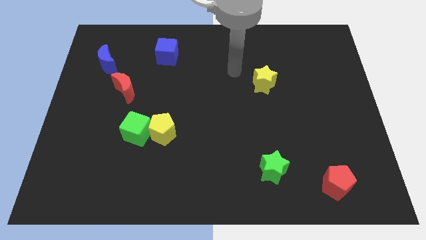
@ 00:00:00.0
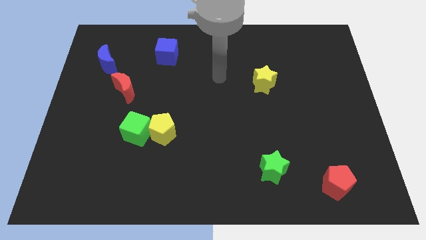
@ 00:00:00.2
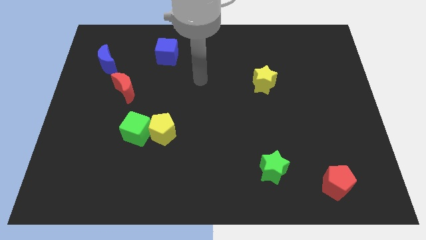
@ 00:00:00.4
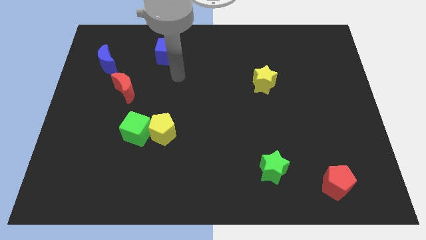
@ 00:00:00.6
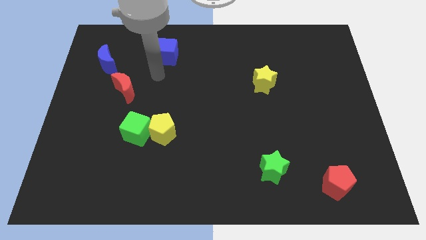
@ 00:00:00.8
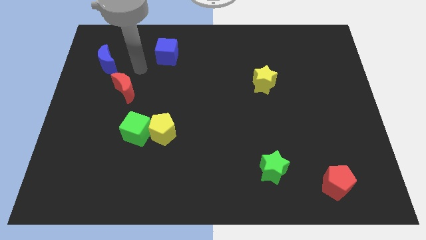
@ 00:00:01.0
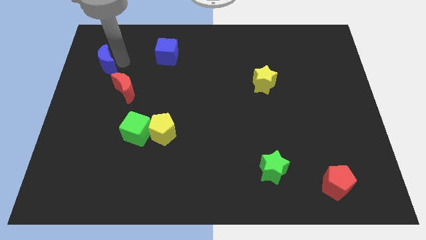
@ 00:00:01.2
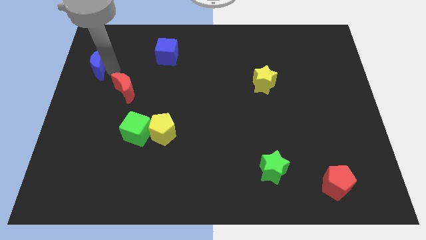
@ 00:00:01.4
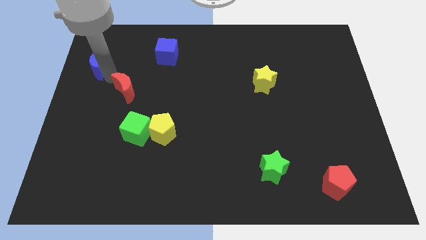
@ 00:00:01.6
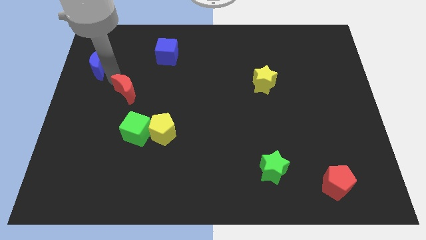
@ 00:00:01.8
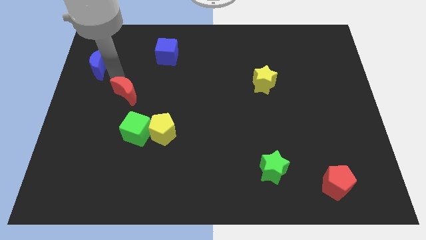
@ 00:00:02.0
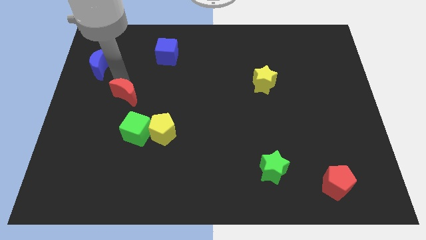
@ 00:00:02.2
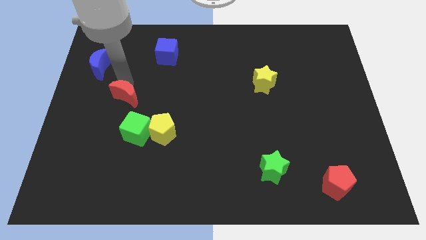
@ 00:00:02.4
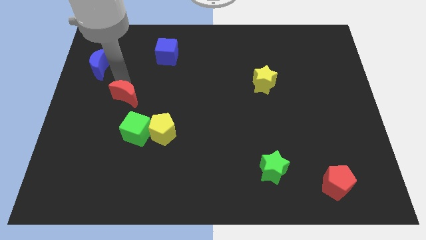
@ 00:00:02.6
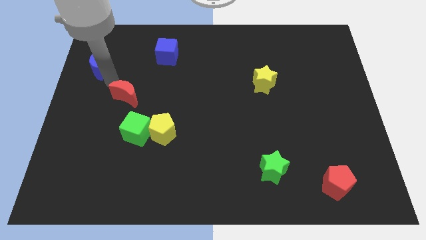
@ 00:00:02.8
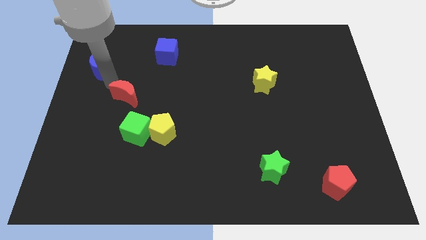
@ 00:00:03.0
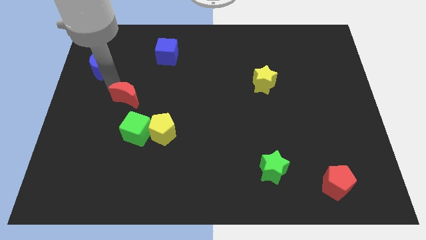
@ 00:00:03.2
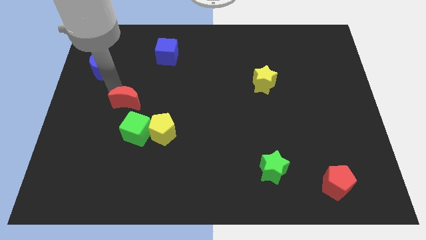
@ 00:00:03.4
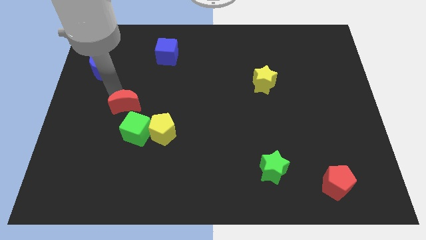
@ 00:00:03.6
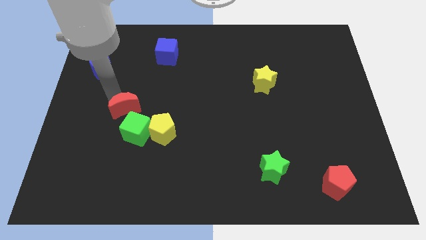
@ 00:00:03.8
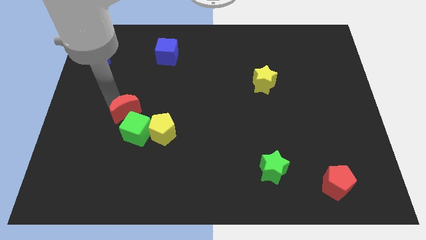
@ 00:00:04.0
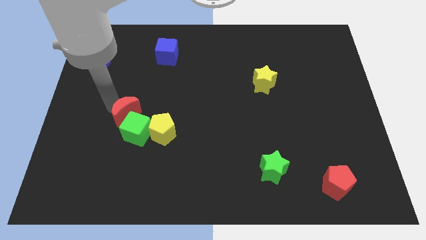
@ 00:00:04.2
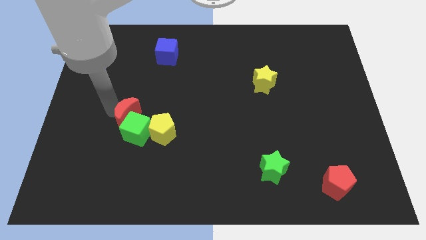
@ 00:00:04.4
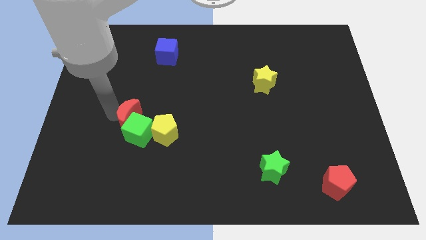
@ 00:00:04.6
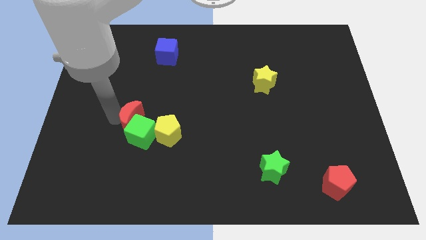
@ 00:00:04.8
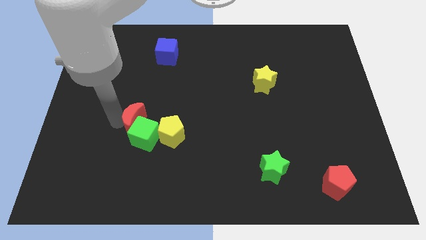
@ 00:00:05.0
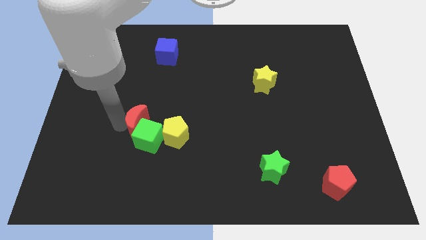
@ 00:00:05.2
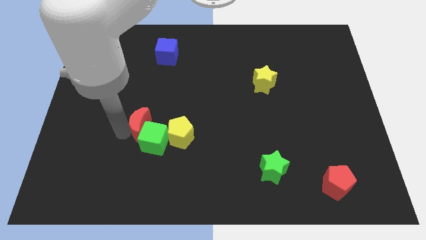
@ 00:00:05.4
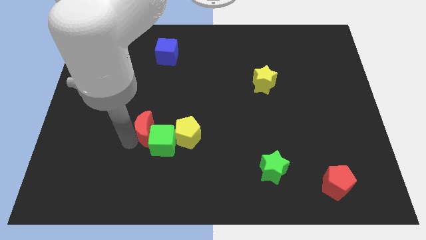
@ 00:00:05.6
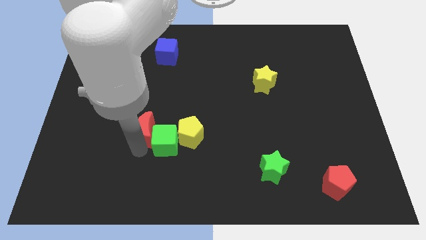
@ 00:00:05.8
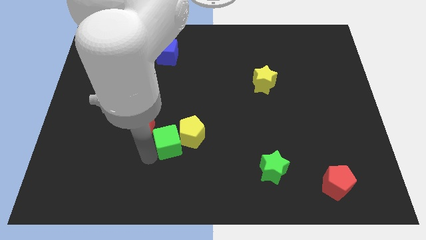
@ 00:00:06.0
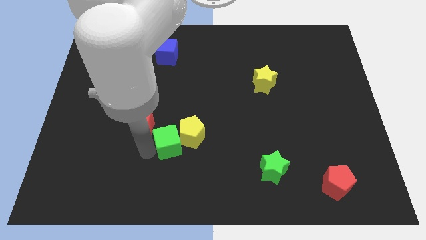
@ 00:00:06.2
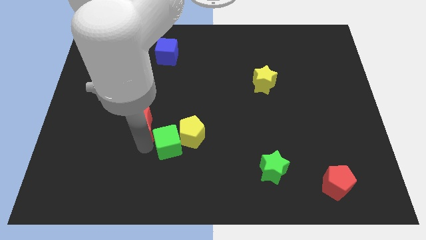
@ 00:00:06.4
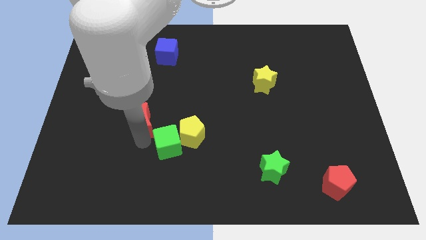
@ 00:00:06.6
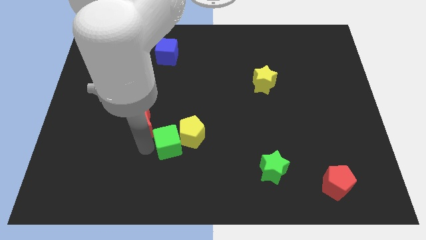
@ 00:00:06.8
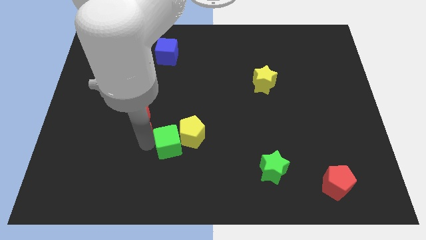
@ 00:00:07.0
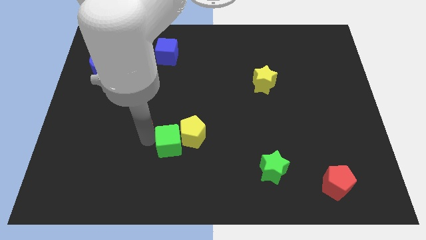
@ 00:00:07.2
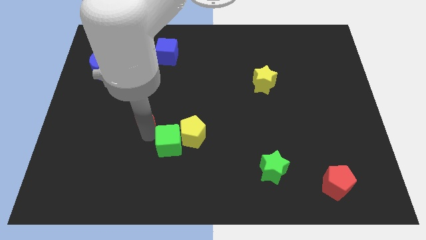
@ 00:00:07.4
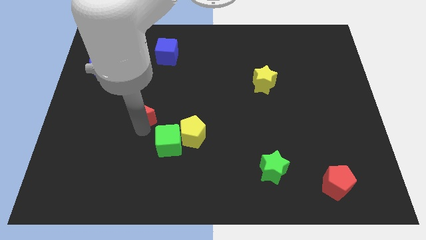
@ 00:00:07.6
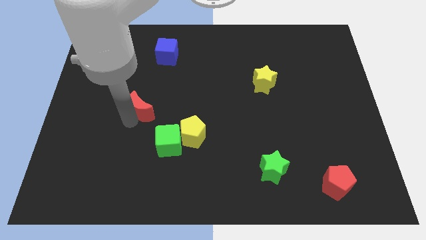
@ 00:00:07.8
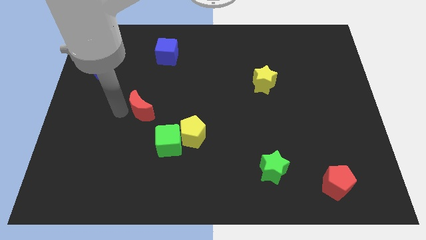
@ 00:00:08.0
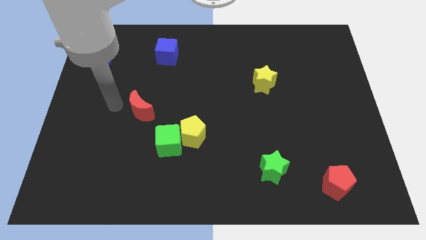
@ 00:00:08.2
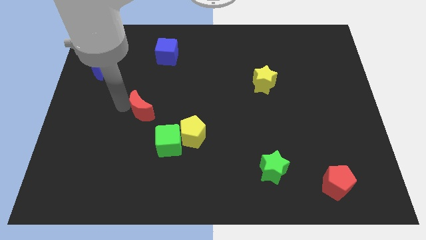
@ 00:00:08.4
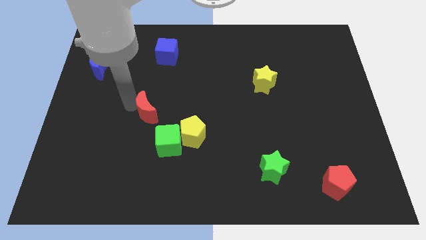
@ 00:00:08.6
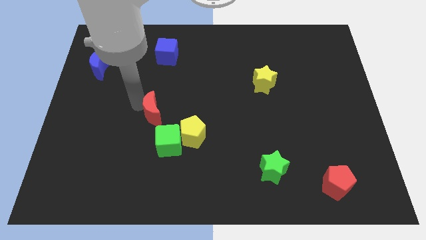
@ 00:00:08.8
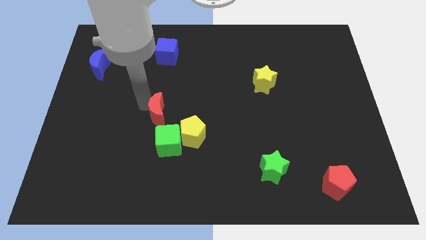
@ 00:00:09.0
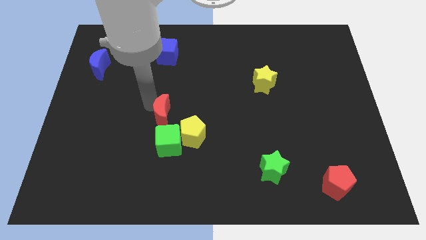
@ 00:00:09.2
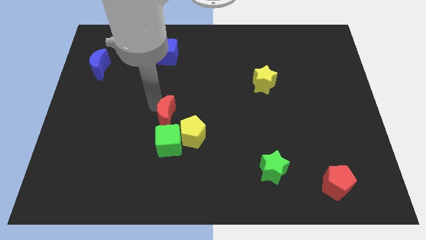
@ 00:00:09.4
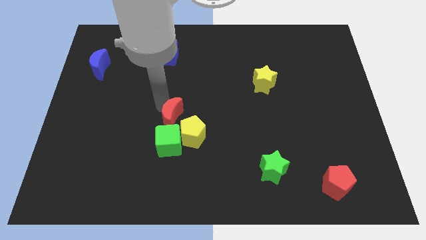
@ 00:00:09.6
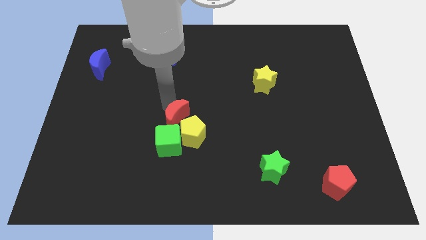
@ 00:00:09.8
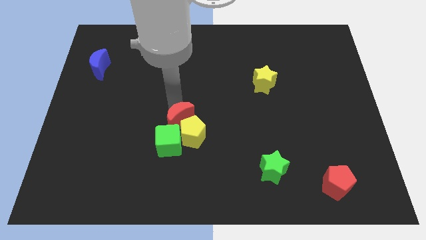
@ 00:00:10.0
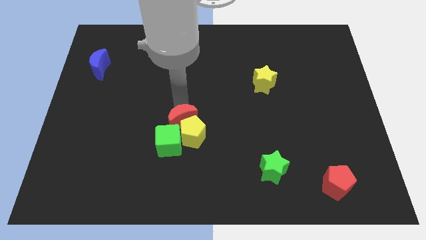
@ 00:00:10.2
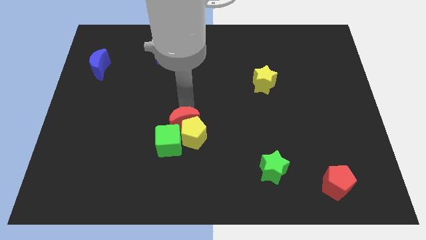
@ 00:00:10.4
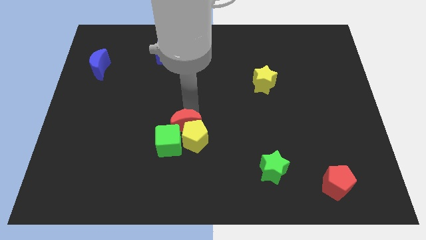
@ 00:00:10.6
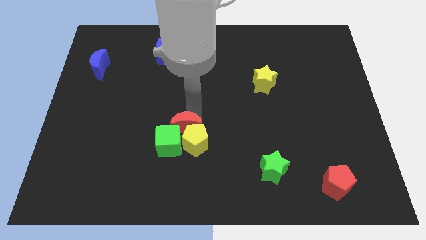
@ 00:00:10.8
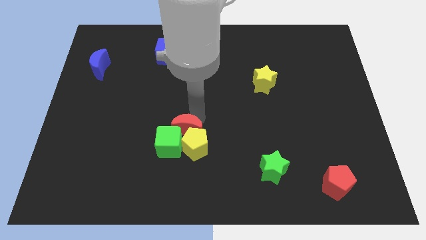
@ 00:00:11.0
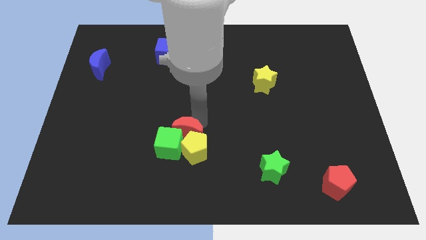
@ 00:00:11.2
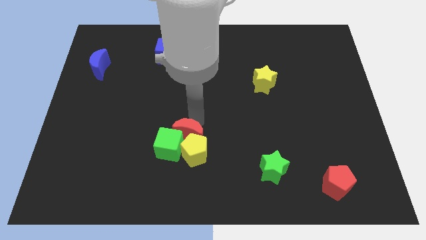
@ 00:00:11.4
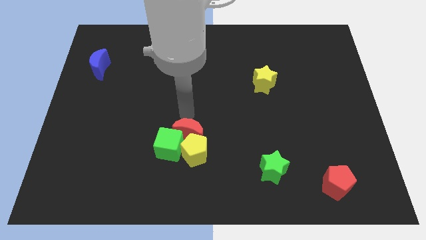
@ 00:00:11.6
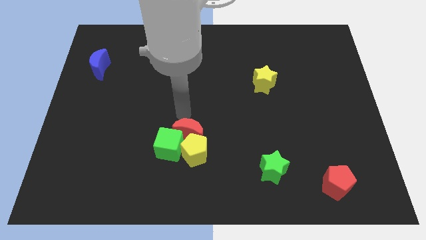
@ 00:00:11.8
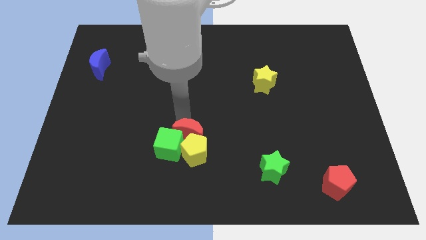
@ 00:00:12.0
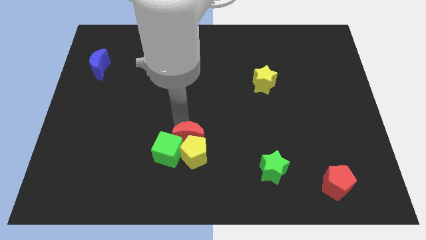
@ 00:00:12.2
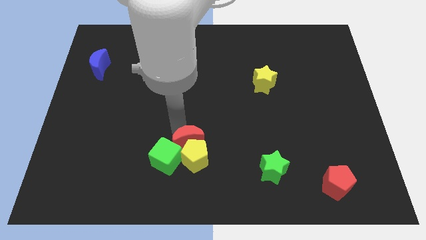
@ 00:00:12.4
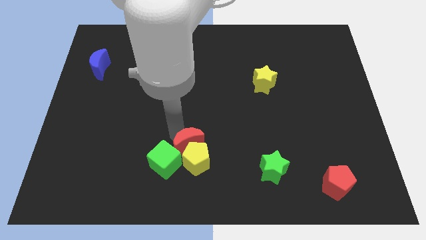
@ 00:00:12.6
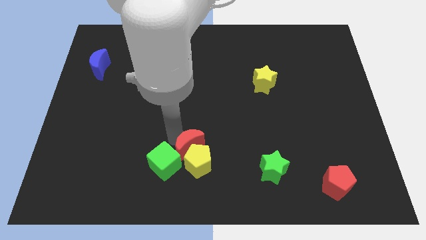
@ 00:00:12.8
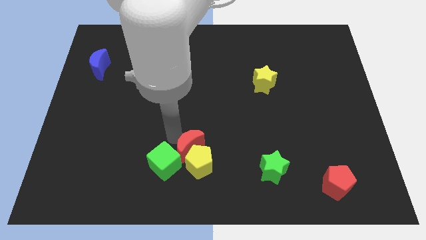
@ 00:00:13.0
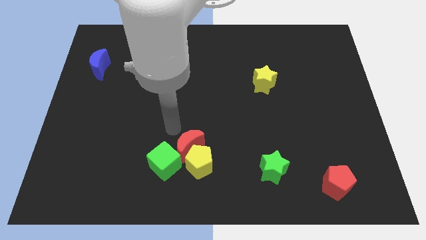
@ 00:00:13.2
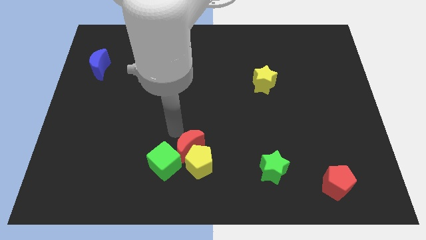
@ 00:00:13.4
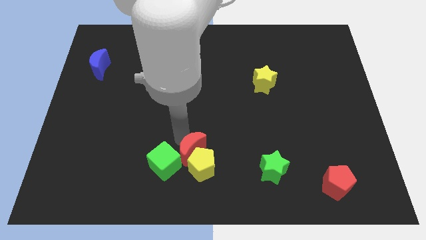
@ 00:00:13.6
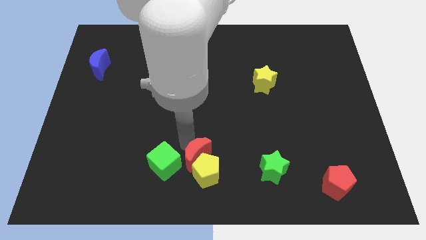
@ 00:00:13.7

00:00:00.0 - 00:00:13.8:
move the red moon to the bottom side
